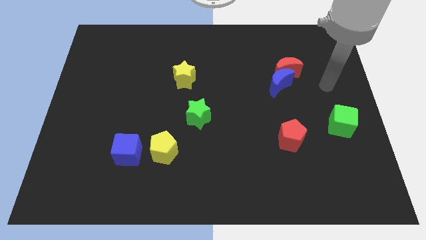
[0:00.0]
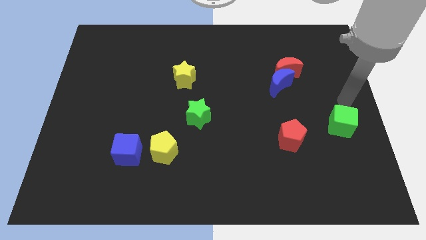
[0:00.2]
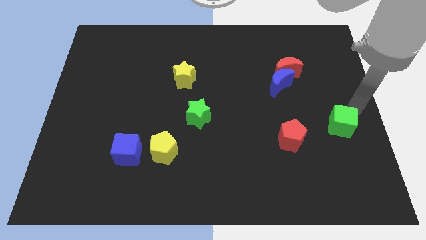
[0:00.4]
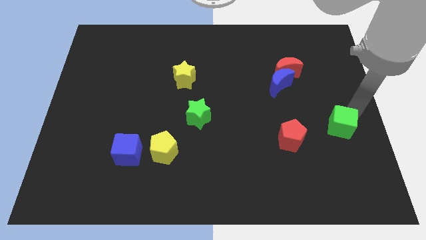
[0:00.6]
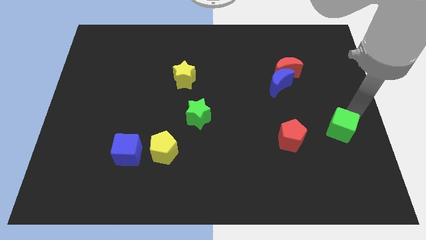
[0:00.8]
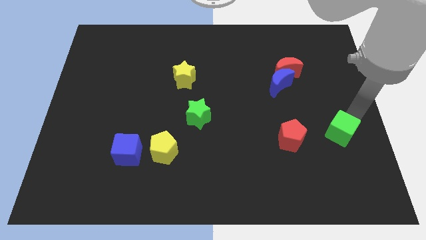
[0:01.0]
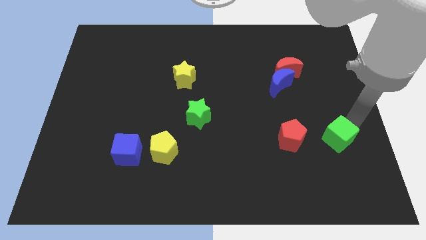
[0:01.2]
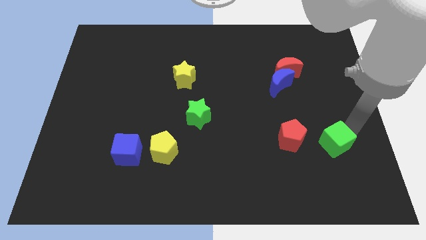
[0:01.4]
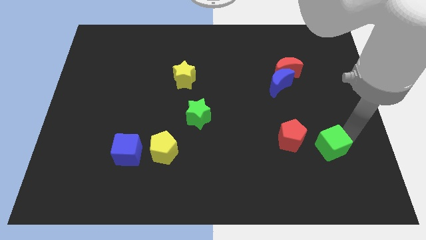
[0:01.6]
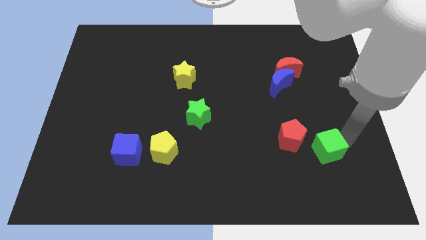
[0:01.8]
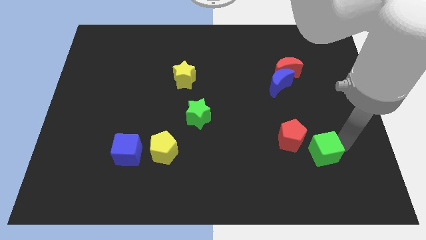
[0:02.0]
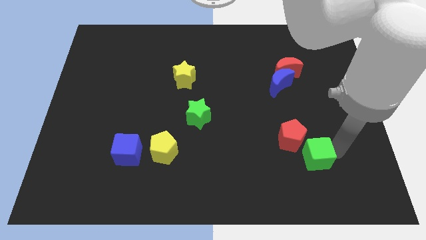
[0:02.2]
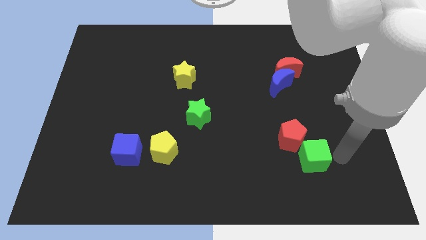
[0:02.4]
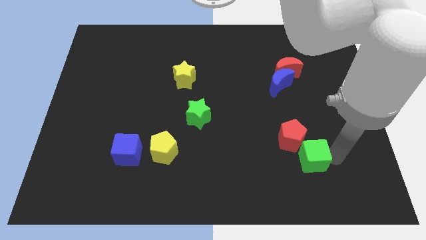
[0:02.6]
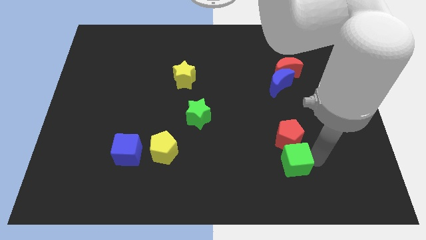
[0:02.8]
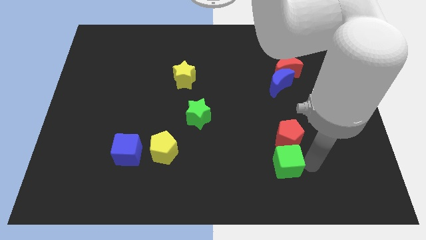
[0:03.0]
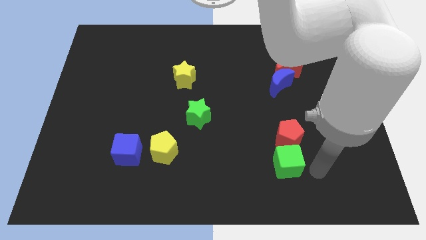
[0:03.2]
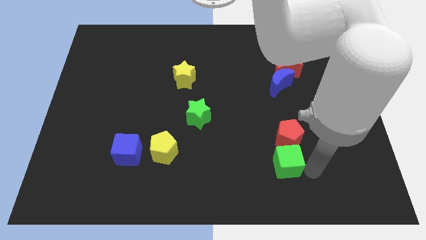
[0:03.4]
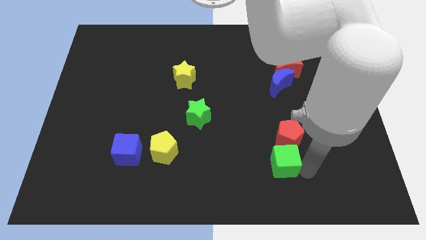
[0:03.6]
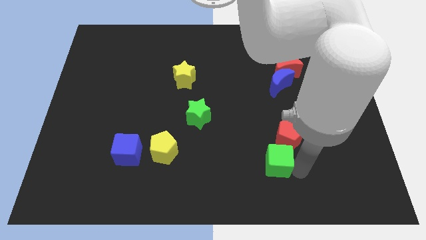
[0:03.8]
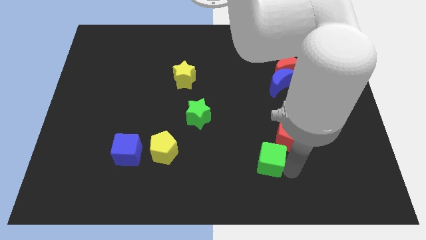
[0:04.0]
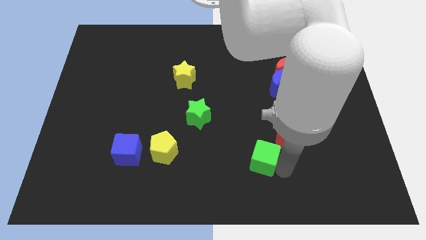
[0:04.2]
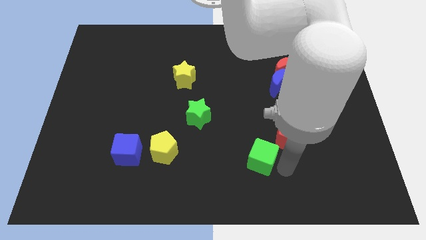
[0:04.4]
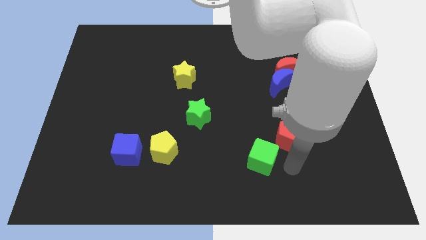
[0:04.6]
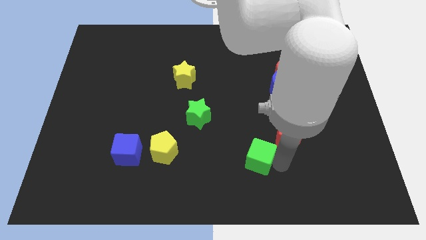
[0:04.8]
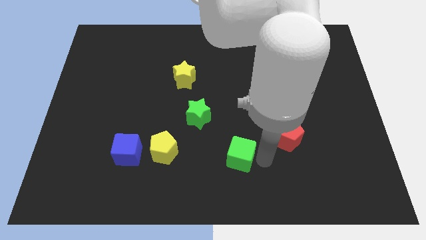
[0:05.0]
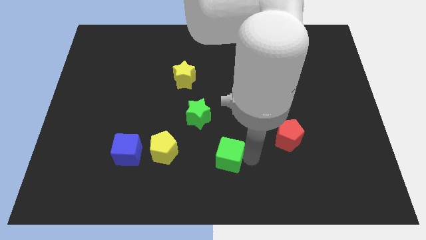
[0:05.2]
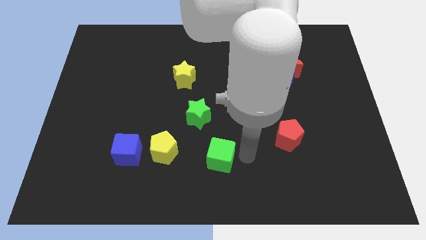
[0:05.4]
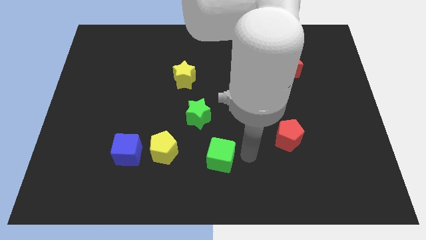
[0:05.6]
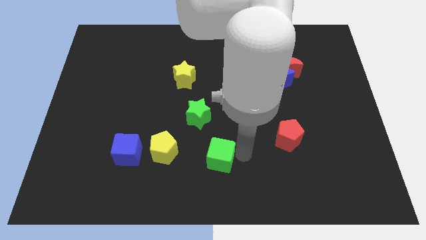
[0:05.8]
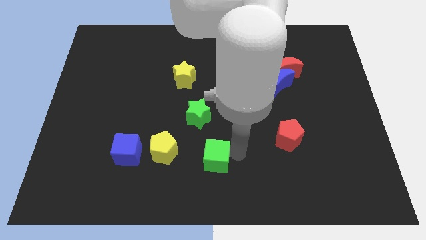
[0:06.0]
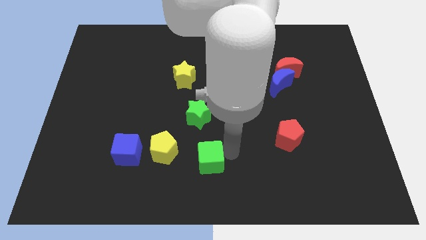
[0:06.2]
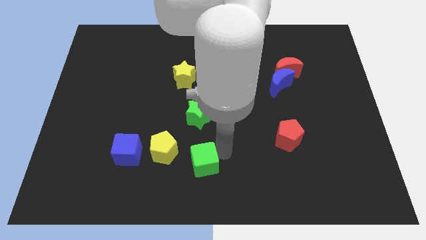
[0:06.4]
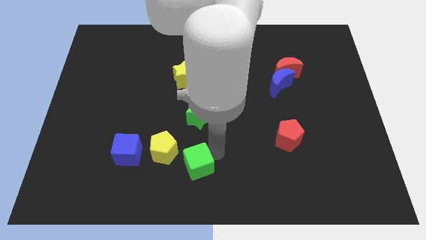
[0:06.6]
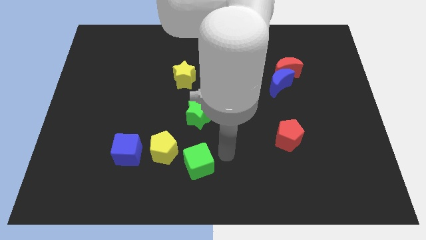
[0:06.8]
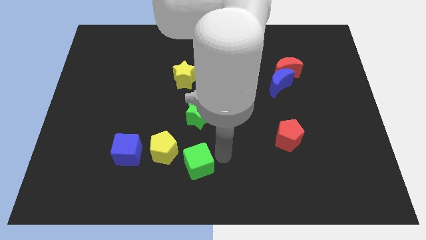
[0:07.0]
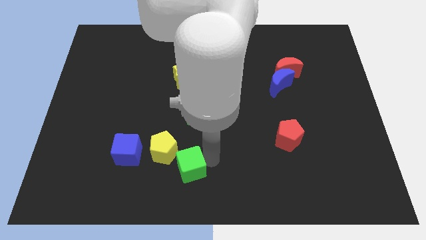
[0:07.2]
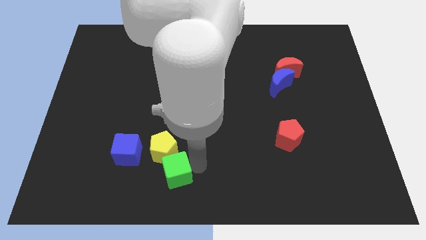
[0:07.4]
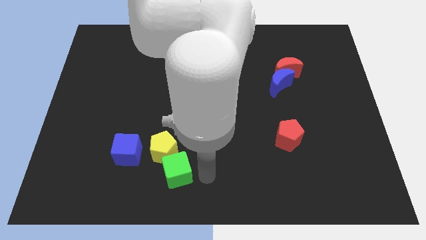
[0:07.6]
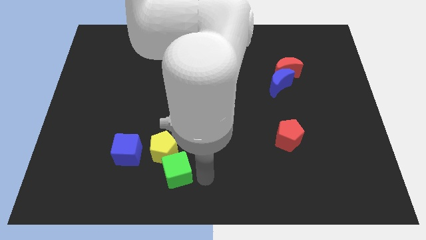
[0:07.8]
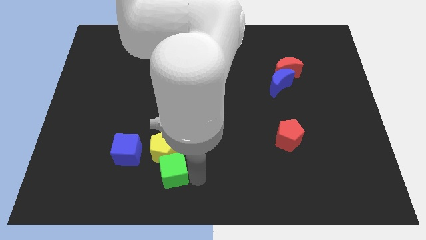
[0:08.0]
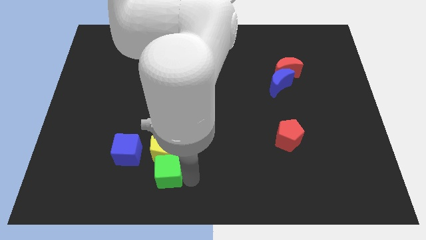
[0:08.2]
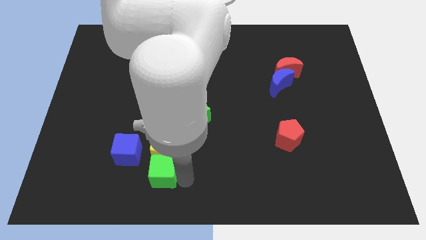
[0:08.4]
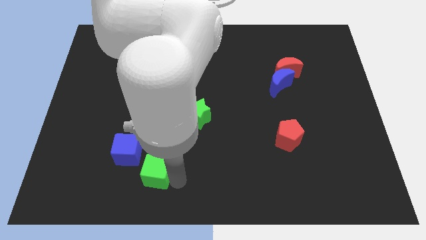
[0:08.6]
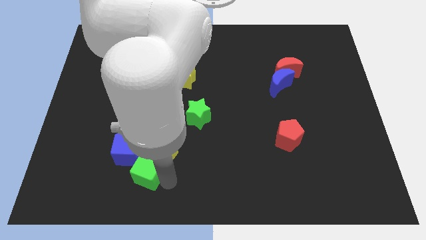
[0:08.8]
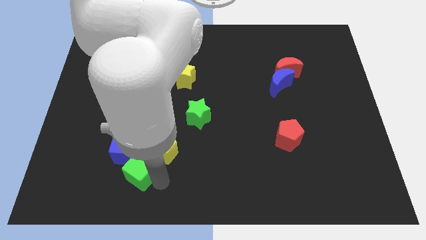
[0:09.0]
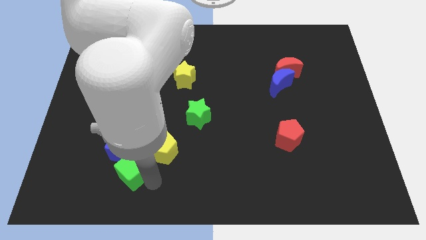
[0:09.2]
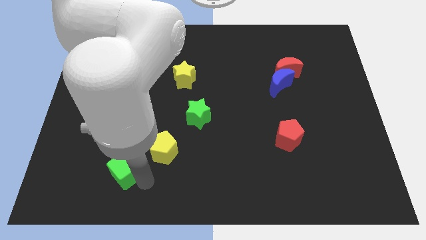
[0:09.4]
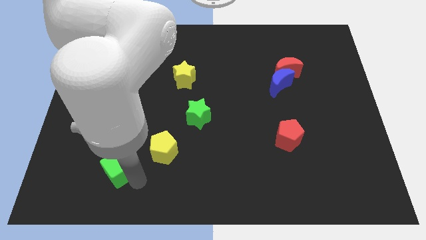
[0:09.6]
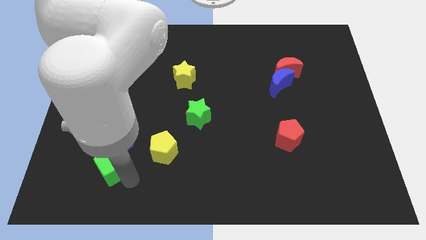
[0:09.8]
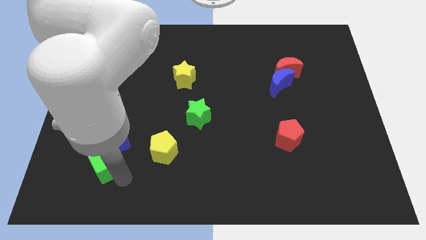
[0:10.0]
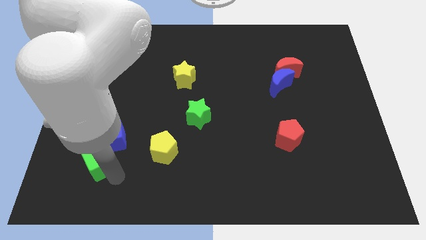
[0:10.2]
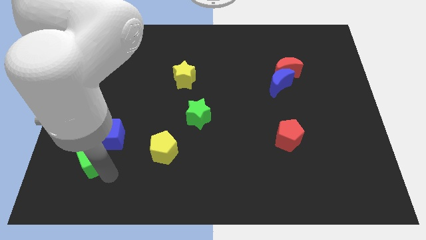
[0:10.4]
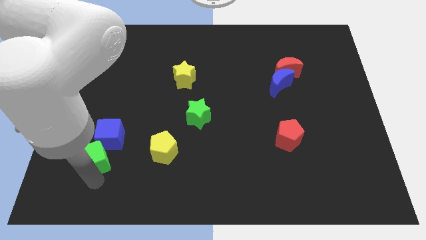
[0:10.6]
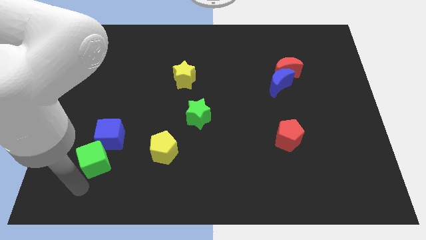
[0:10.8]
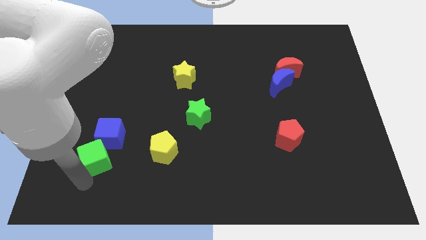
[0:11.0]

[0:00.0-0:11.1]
push the green cube next to the blue cube

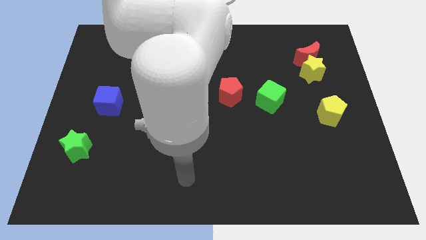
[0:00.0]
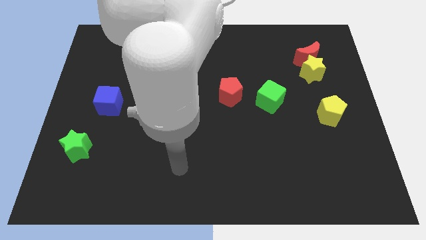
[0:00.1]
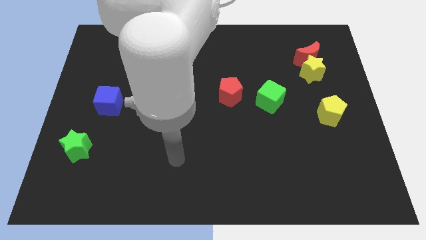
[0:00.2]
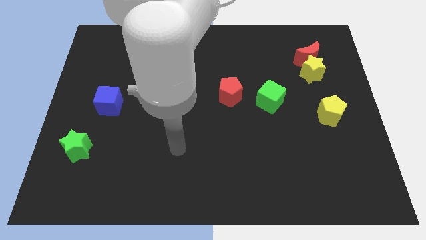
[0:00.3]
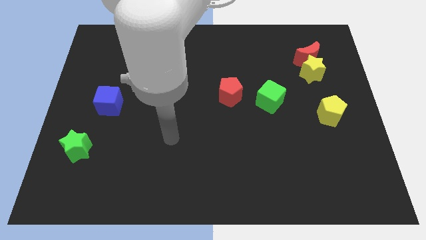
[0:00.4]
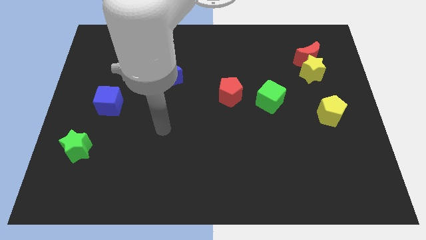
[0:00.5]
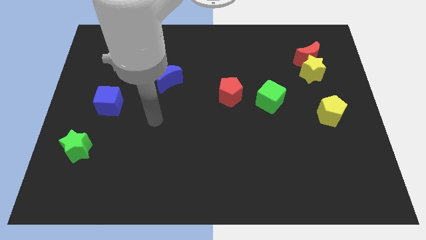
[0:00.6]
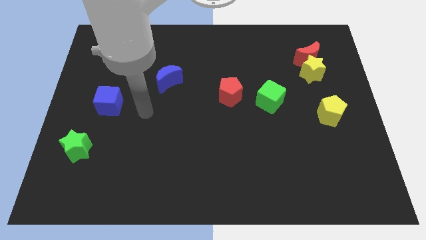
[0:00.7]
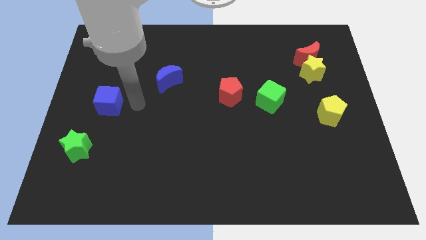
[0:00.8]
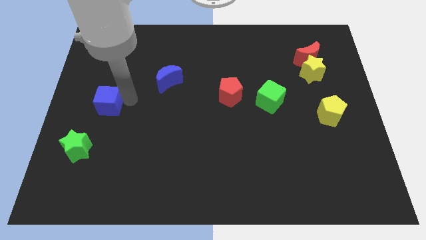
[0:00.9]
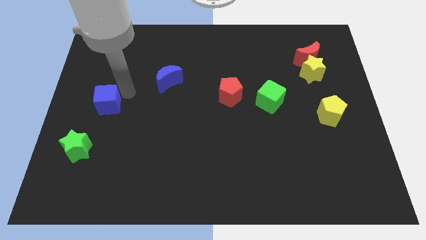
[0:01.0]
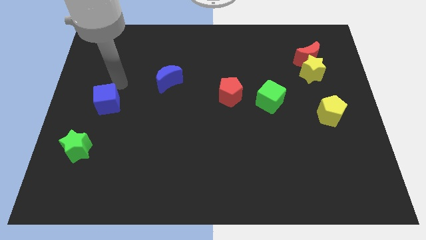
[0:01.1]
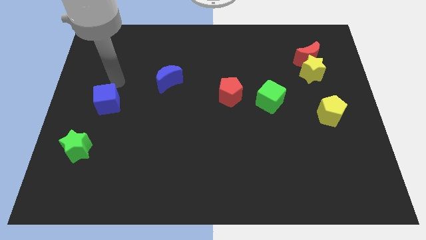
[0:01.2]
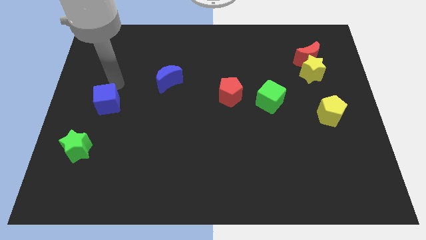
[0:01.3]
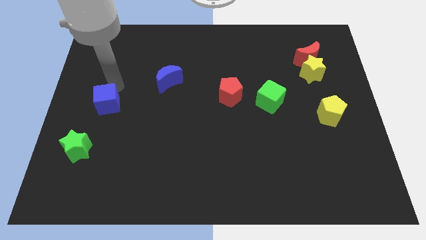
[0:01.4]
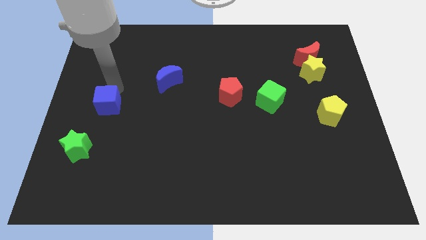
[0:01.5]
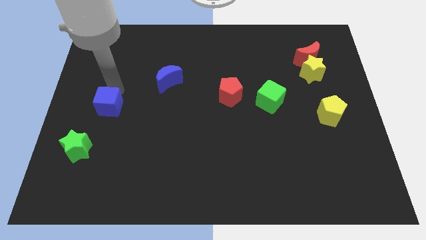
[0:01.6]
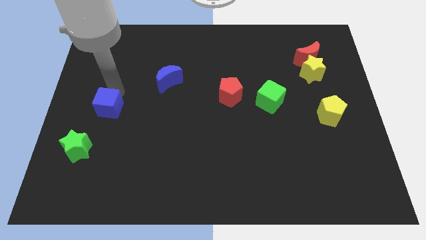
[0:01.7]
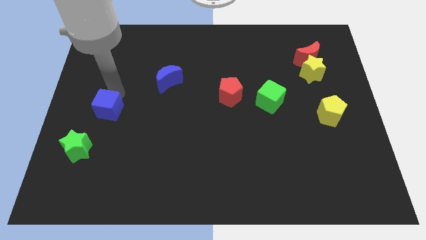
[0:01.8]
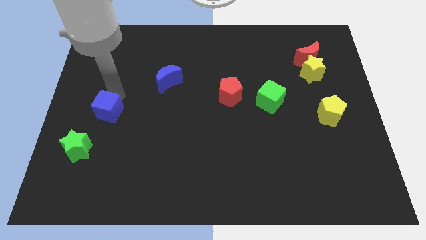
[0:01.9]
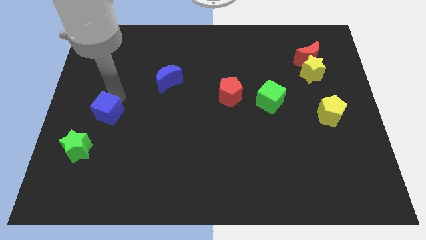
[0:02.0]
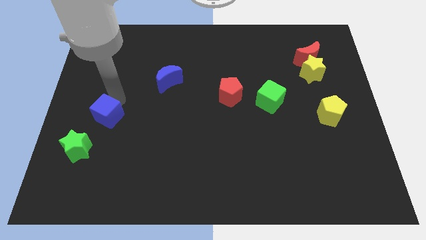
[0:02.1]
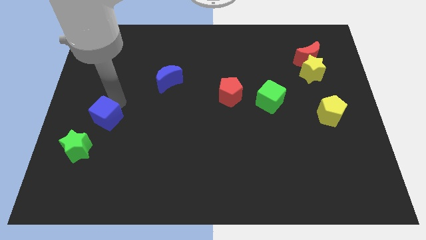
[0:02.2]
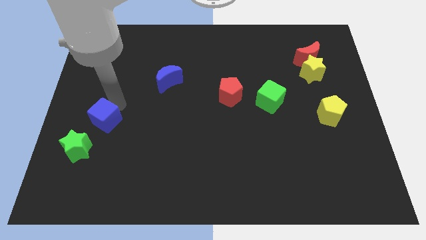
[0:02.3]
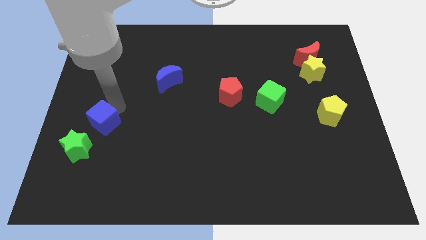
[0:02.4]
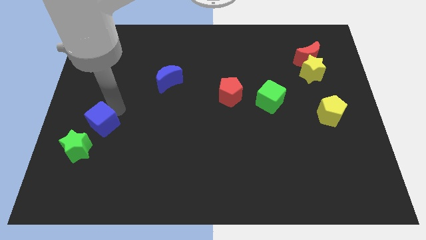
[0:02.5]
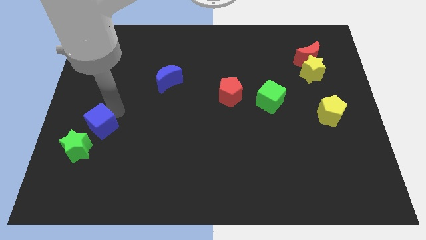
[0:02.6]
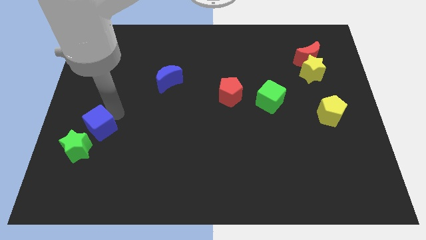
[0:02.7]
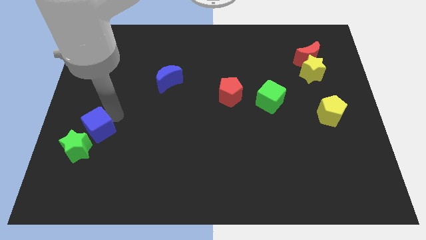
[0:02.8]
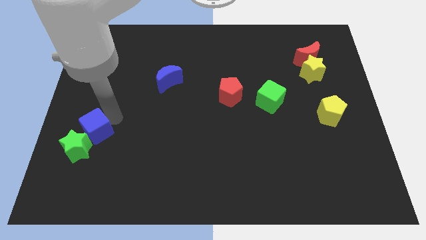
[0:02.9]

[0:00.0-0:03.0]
slide the blue cube next to the green star
